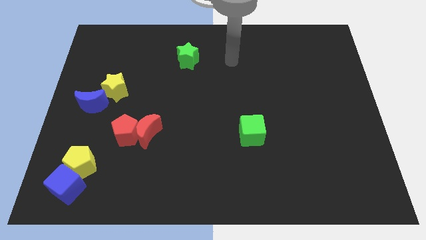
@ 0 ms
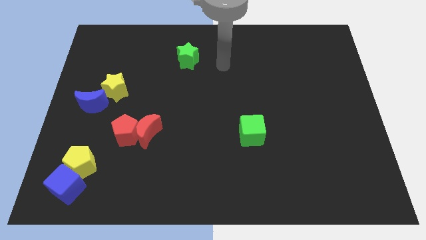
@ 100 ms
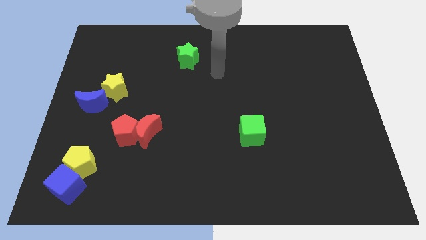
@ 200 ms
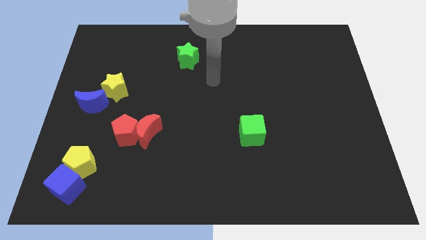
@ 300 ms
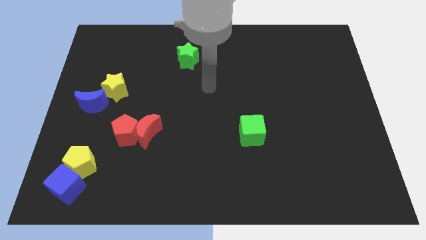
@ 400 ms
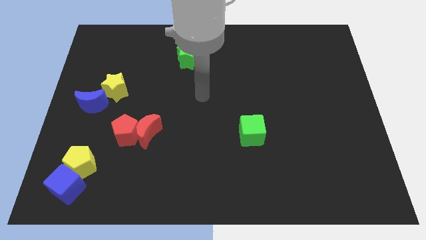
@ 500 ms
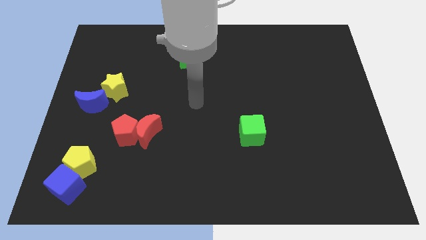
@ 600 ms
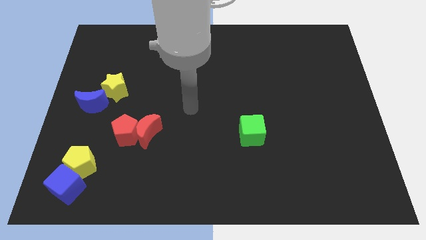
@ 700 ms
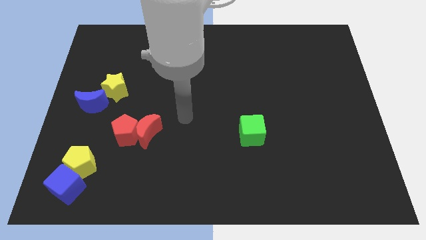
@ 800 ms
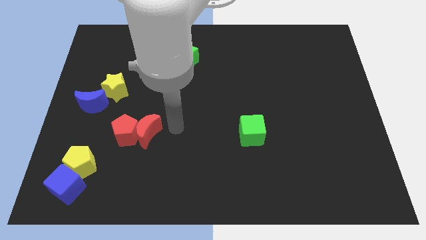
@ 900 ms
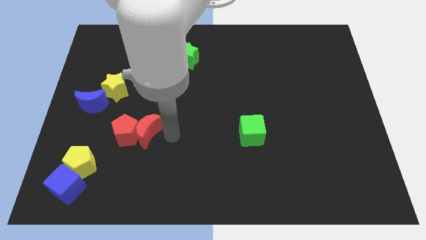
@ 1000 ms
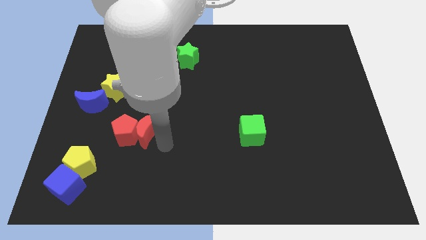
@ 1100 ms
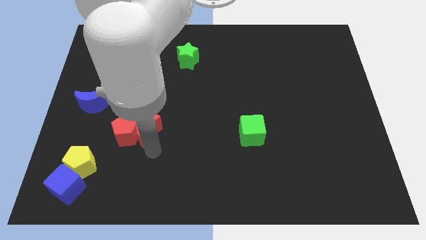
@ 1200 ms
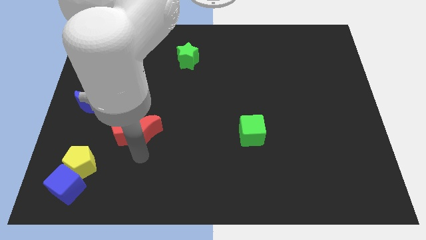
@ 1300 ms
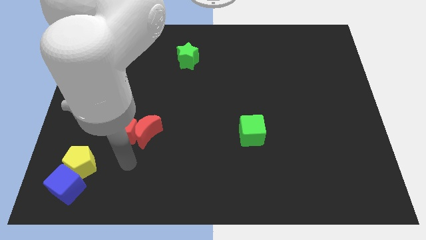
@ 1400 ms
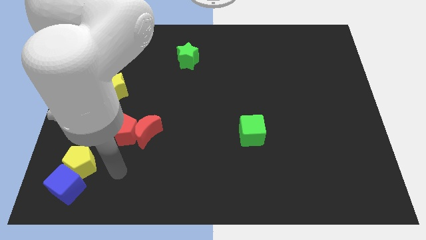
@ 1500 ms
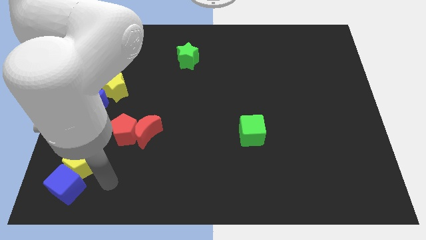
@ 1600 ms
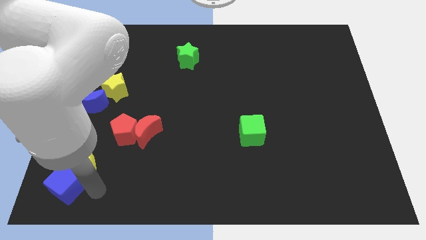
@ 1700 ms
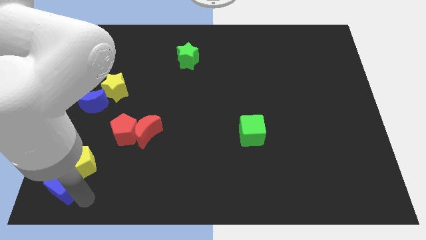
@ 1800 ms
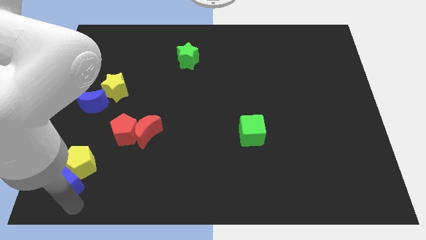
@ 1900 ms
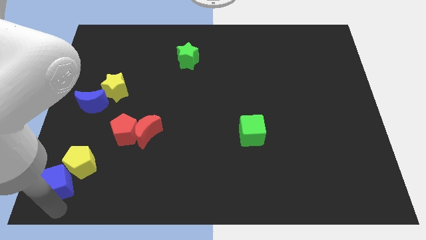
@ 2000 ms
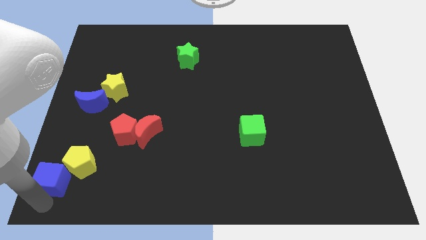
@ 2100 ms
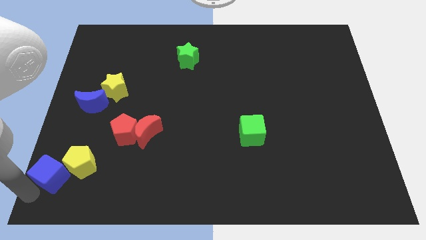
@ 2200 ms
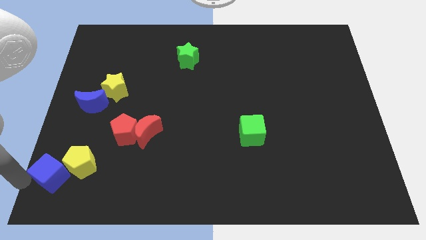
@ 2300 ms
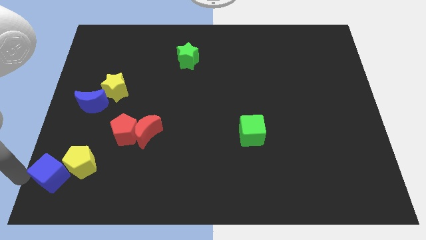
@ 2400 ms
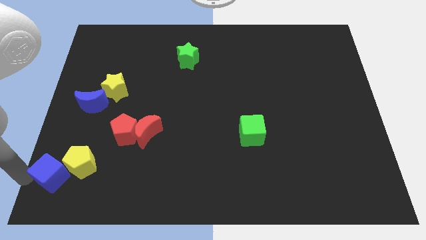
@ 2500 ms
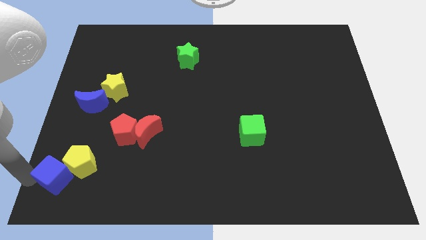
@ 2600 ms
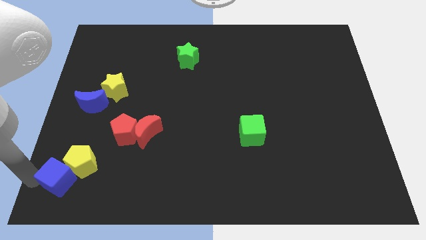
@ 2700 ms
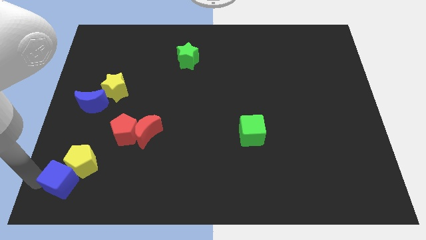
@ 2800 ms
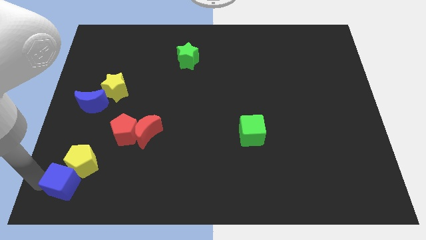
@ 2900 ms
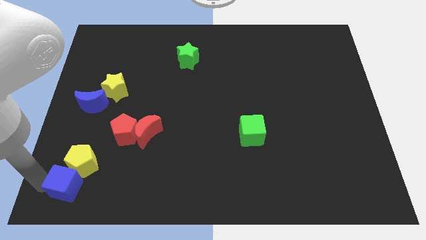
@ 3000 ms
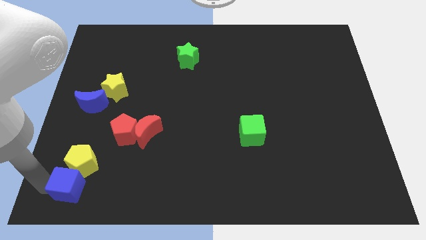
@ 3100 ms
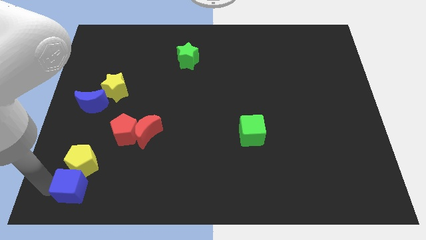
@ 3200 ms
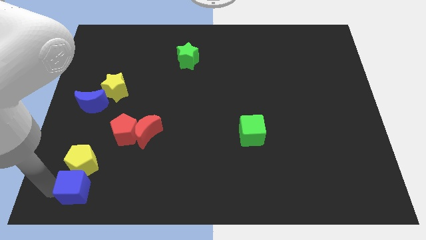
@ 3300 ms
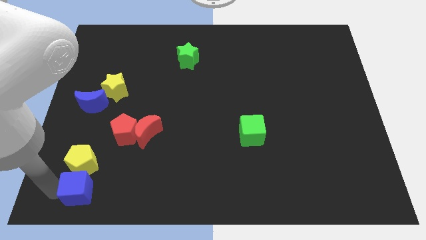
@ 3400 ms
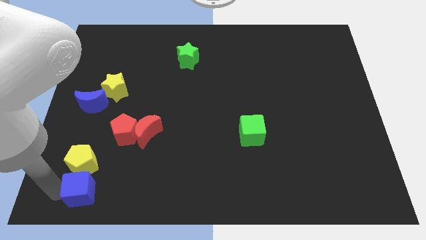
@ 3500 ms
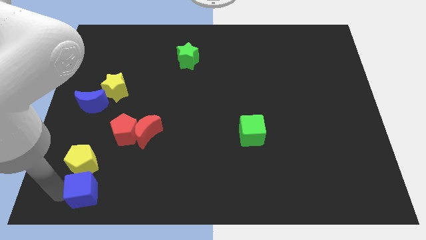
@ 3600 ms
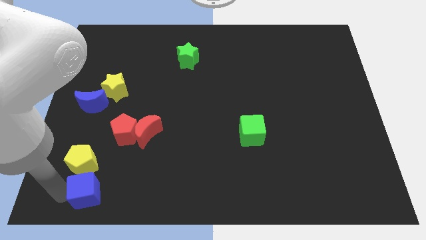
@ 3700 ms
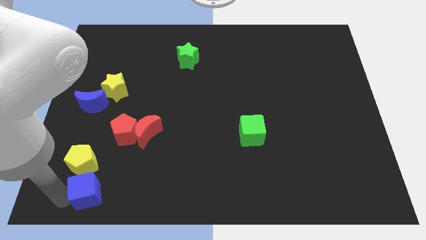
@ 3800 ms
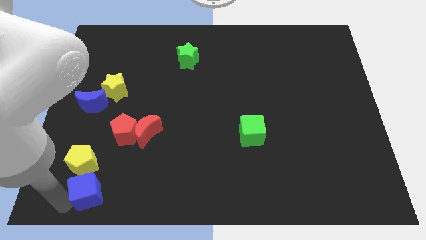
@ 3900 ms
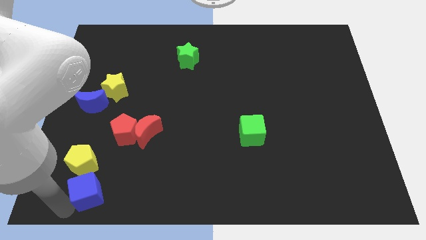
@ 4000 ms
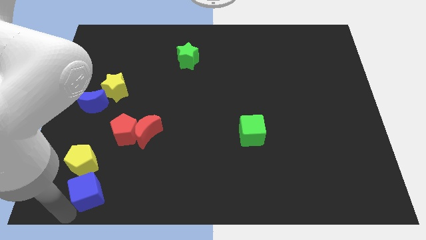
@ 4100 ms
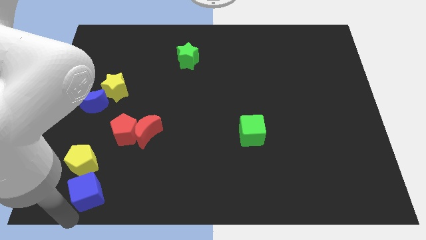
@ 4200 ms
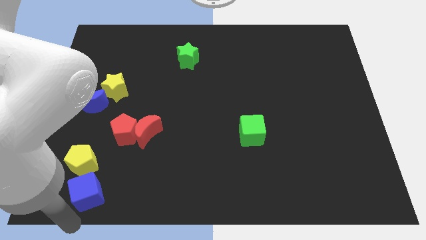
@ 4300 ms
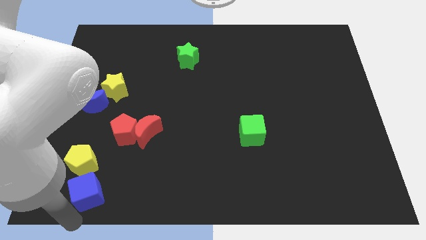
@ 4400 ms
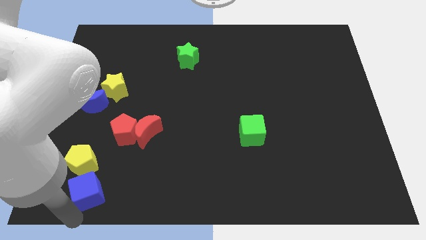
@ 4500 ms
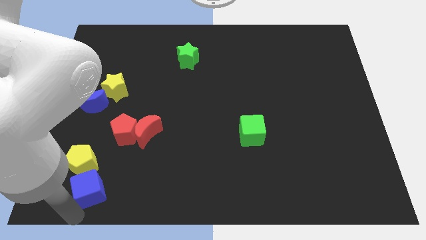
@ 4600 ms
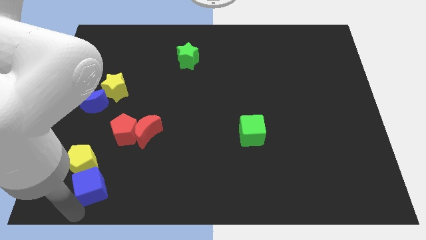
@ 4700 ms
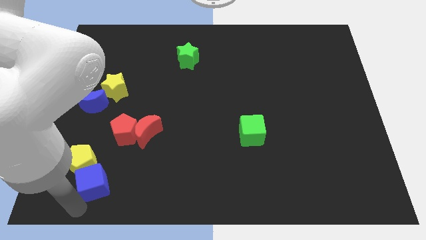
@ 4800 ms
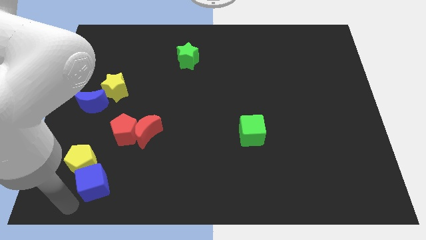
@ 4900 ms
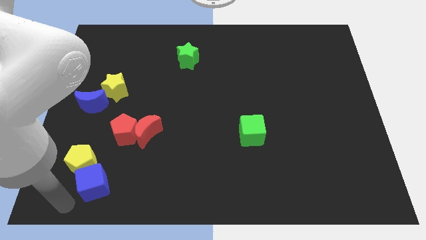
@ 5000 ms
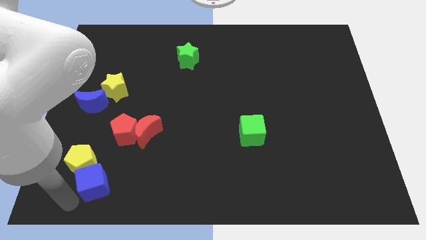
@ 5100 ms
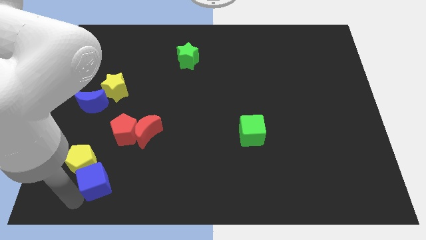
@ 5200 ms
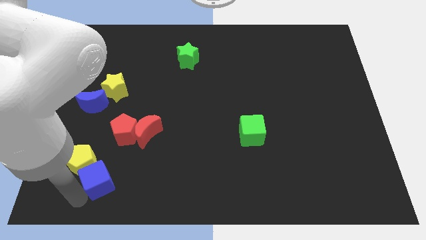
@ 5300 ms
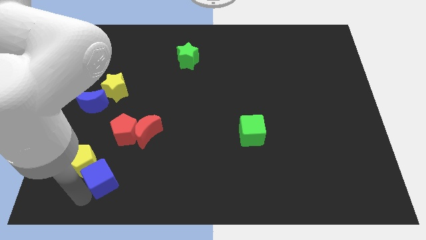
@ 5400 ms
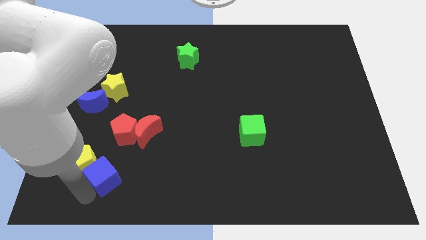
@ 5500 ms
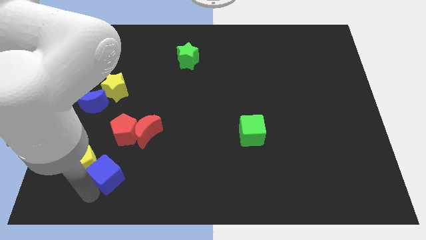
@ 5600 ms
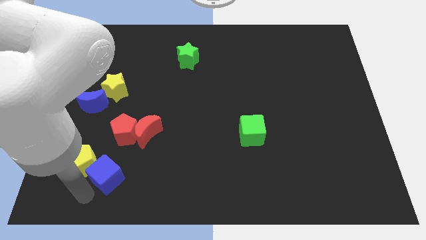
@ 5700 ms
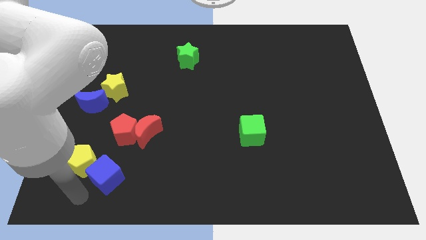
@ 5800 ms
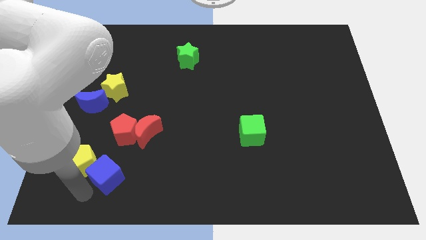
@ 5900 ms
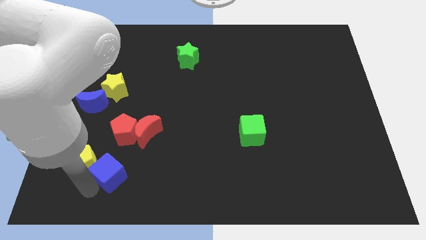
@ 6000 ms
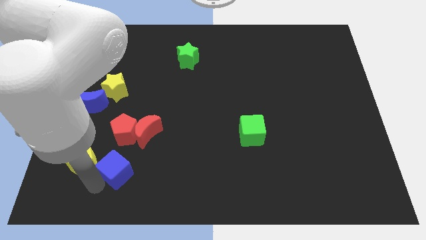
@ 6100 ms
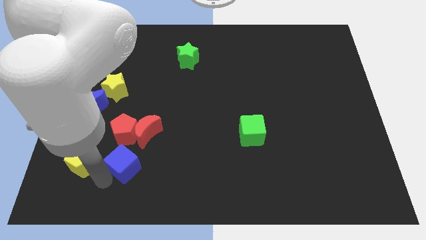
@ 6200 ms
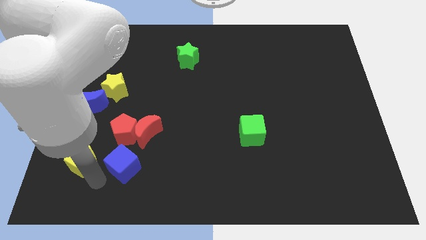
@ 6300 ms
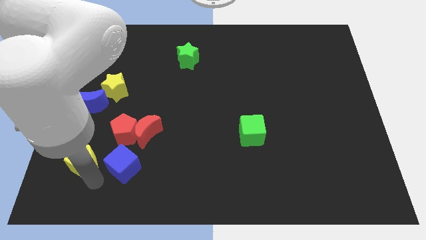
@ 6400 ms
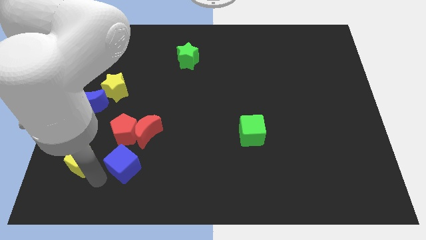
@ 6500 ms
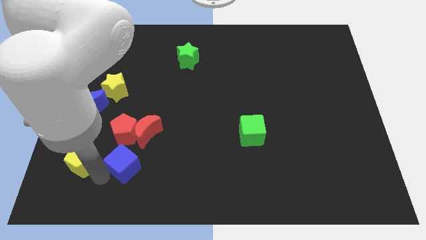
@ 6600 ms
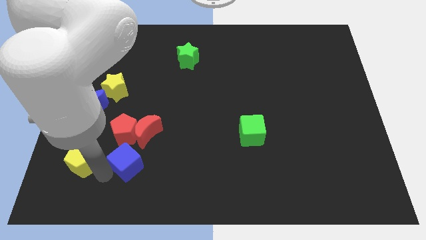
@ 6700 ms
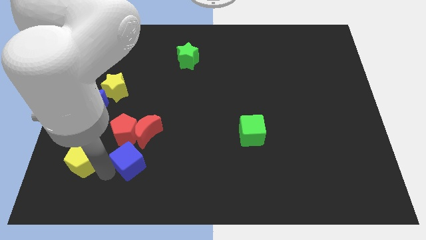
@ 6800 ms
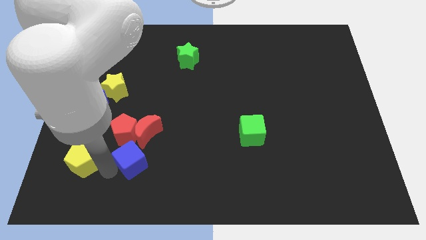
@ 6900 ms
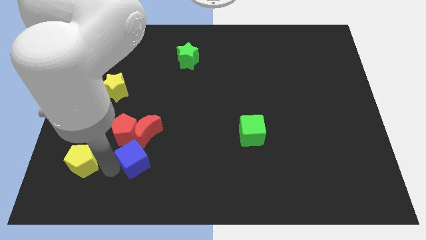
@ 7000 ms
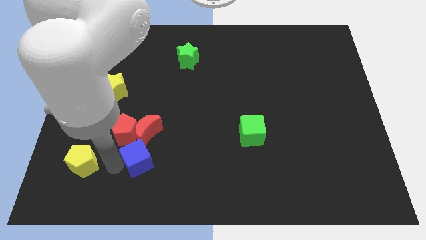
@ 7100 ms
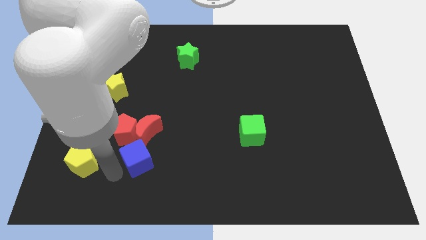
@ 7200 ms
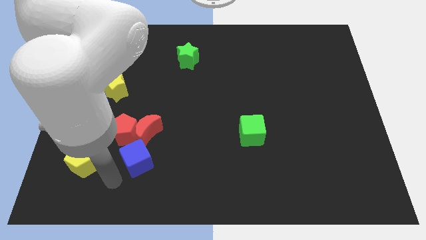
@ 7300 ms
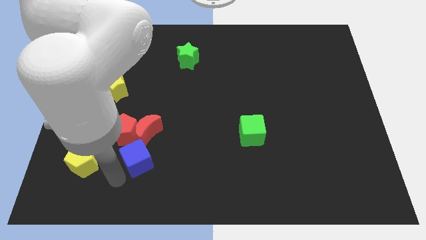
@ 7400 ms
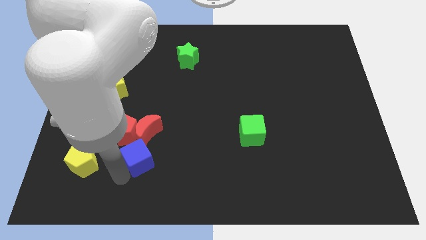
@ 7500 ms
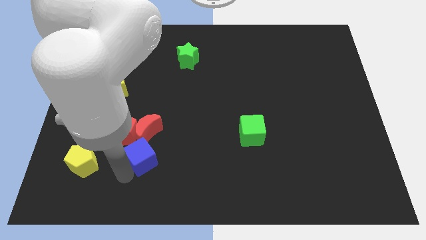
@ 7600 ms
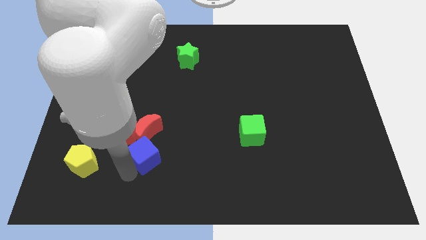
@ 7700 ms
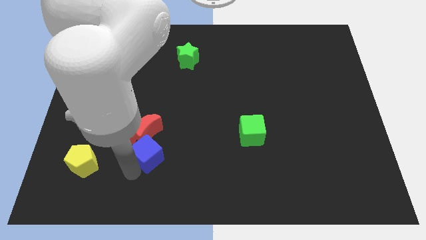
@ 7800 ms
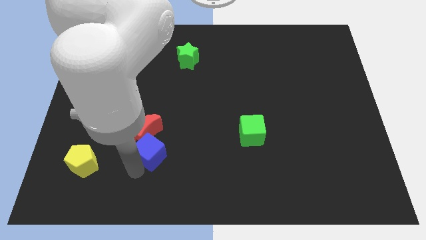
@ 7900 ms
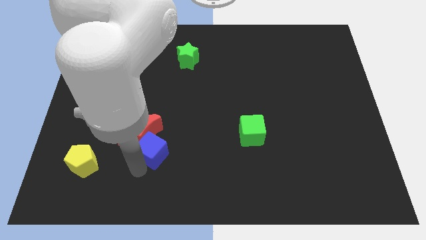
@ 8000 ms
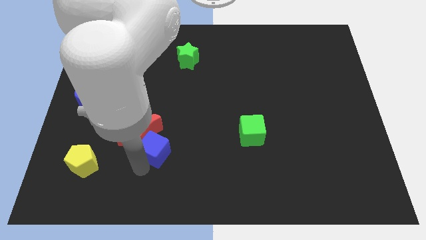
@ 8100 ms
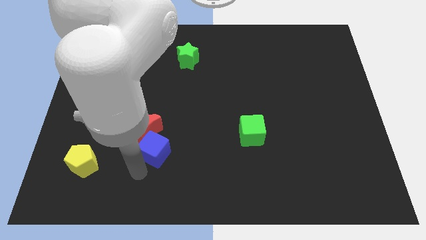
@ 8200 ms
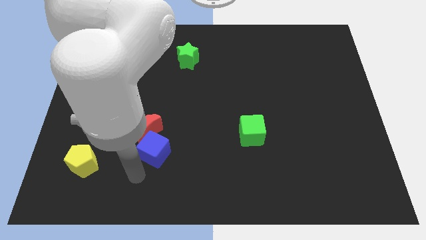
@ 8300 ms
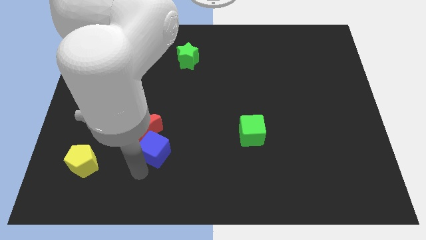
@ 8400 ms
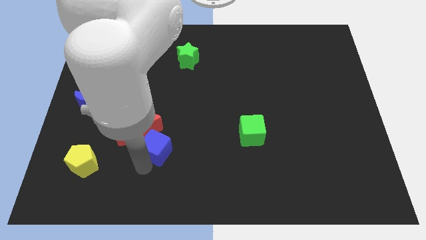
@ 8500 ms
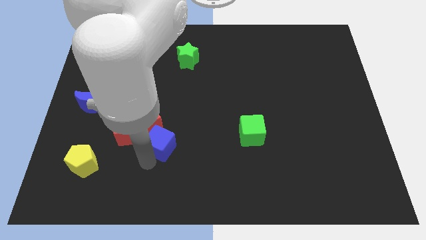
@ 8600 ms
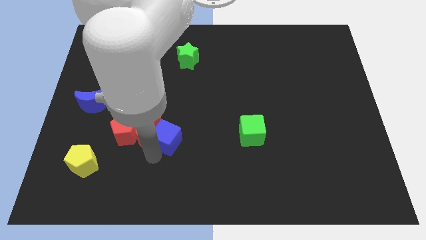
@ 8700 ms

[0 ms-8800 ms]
move the blue cube diagonally up and to the right
